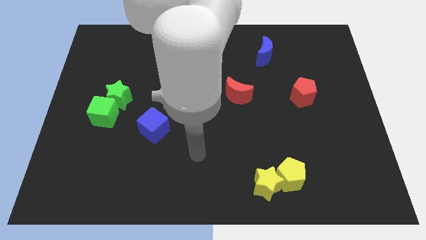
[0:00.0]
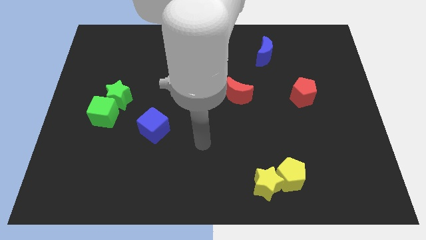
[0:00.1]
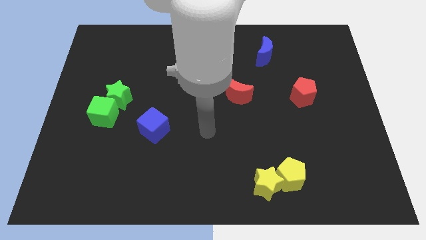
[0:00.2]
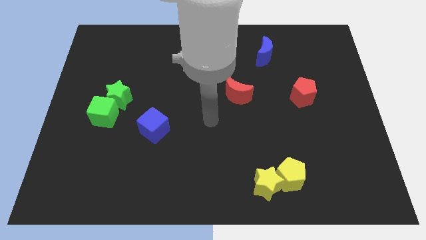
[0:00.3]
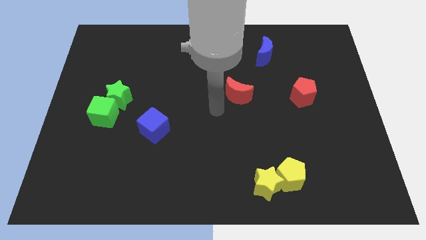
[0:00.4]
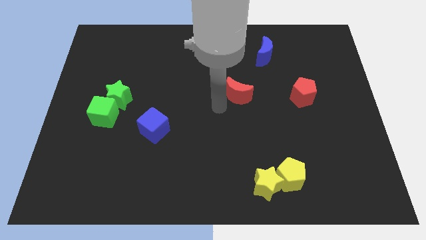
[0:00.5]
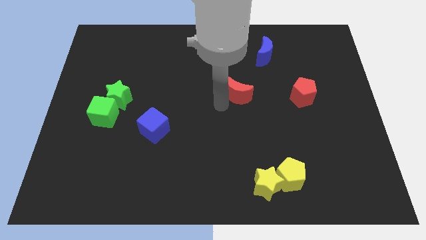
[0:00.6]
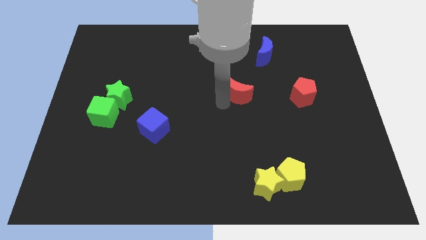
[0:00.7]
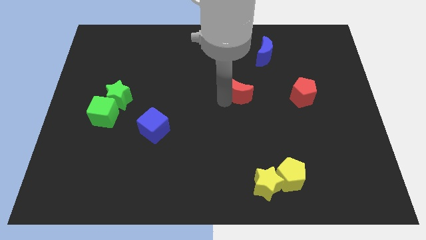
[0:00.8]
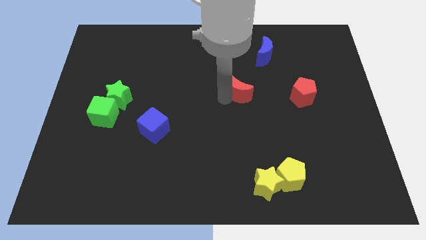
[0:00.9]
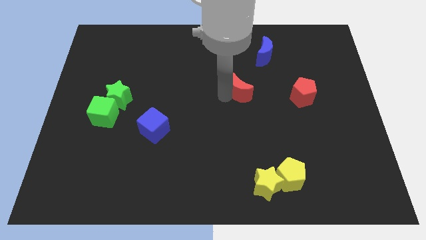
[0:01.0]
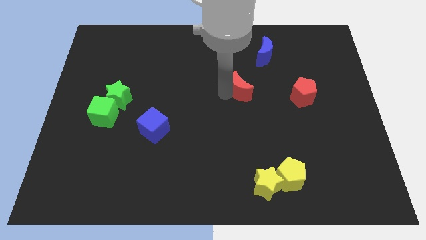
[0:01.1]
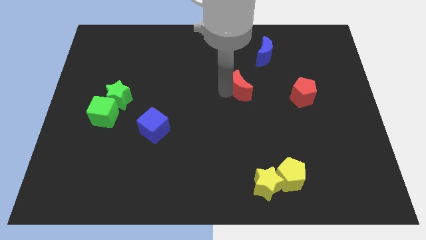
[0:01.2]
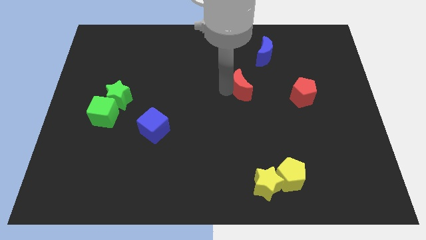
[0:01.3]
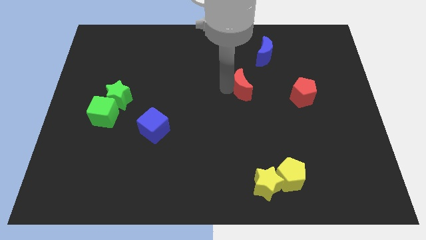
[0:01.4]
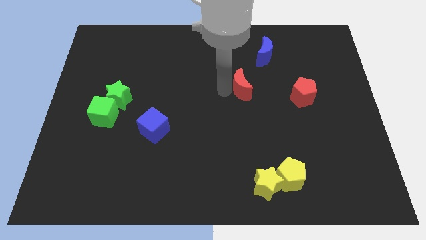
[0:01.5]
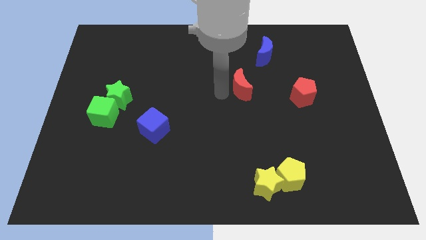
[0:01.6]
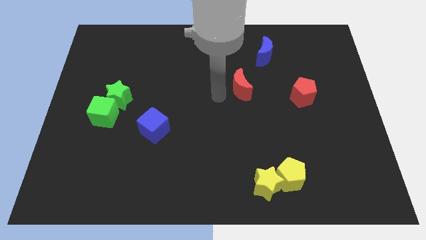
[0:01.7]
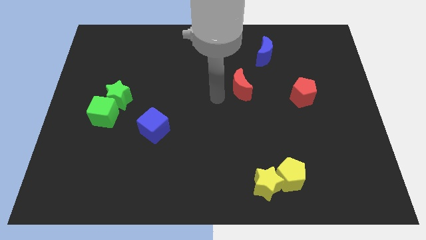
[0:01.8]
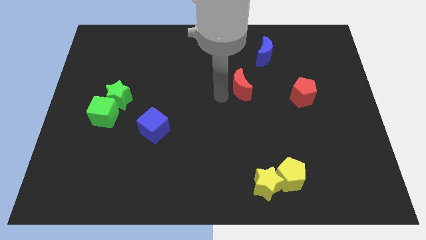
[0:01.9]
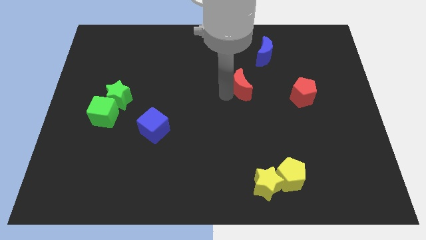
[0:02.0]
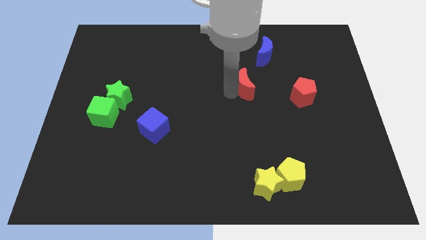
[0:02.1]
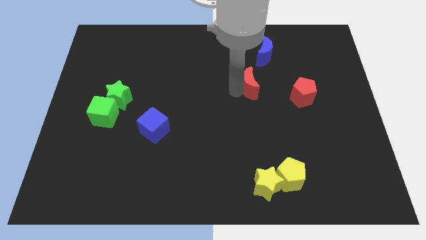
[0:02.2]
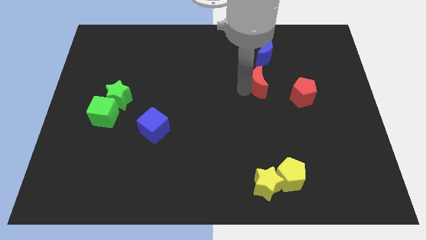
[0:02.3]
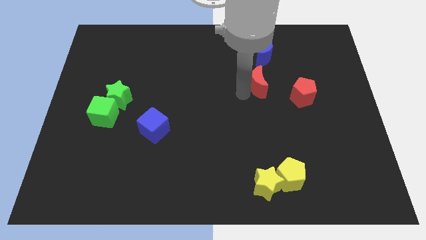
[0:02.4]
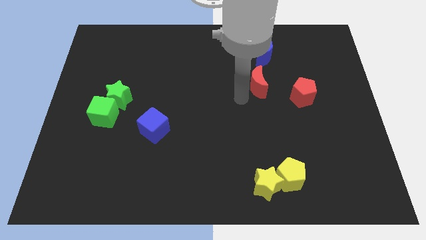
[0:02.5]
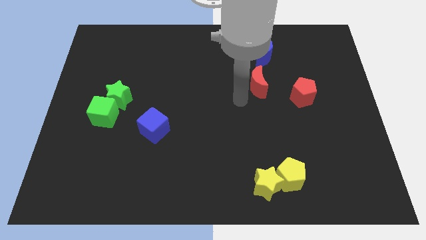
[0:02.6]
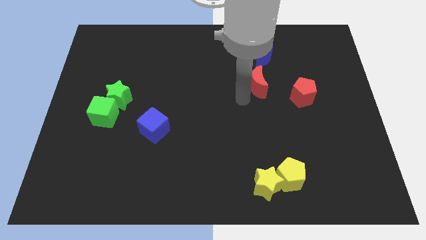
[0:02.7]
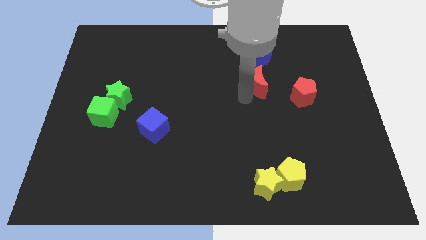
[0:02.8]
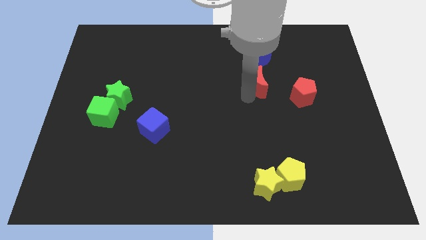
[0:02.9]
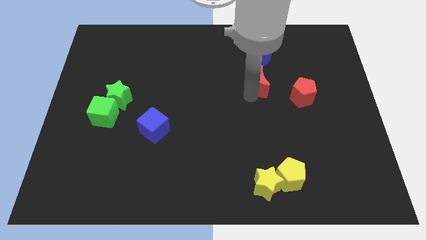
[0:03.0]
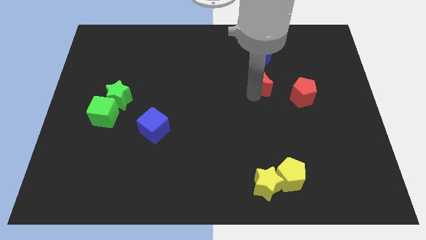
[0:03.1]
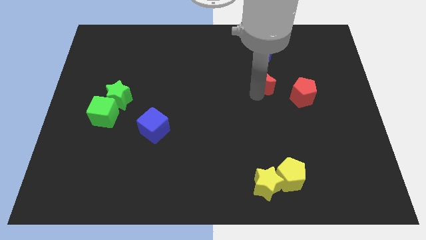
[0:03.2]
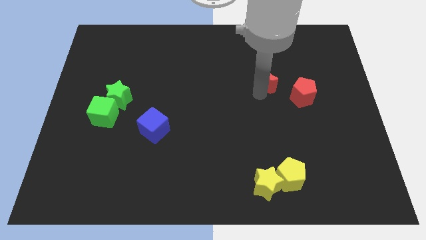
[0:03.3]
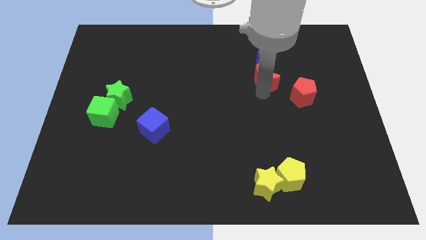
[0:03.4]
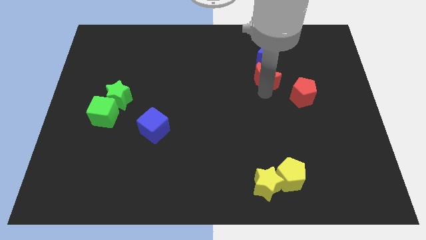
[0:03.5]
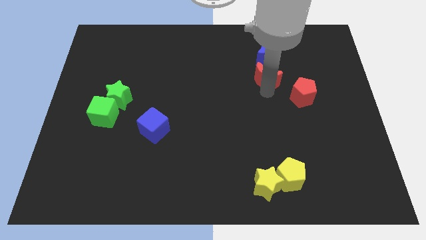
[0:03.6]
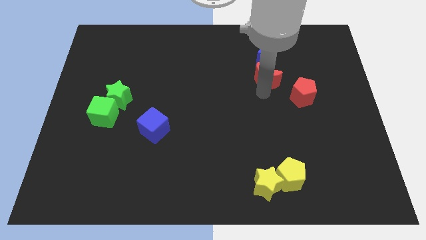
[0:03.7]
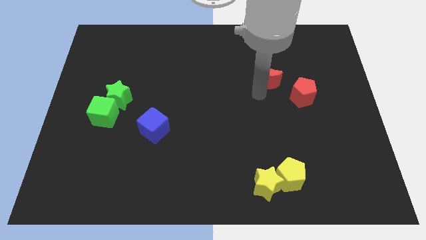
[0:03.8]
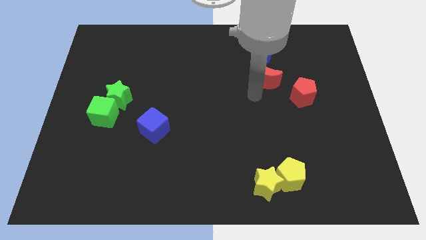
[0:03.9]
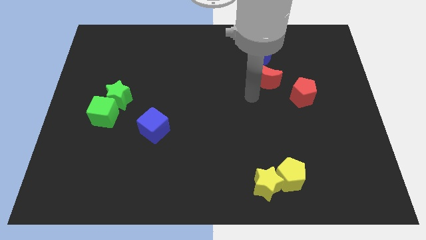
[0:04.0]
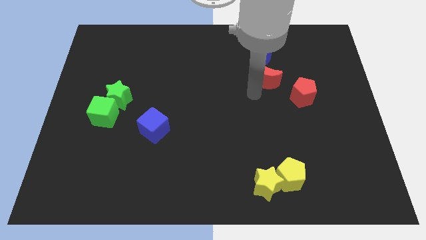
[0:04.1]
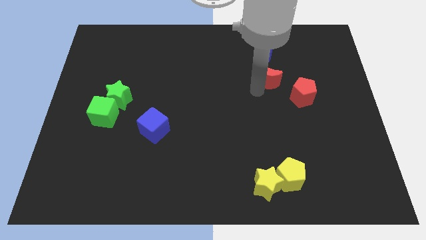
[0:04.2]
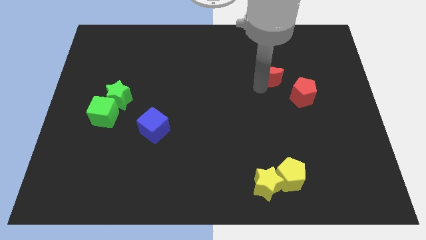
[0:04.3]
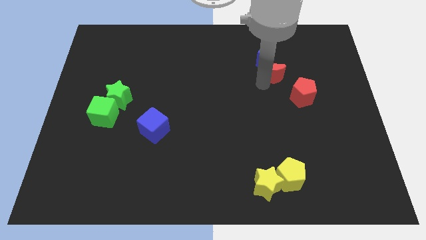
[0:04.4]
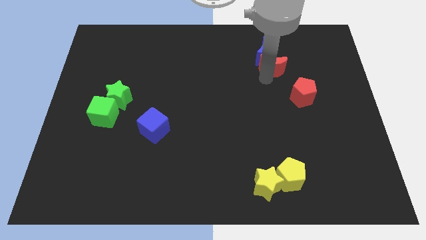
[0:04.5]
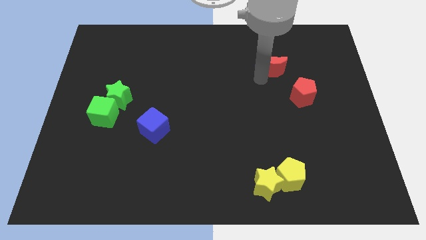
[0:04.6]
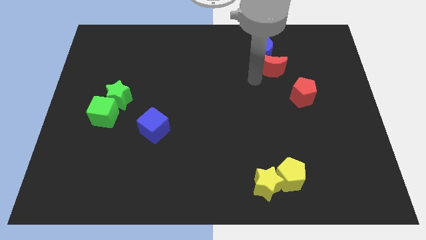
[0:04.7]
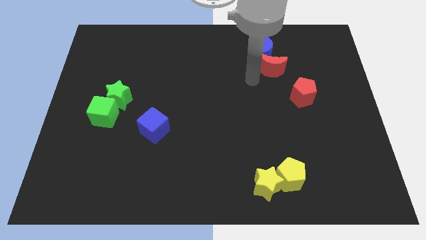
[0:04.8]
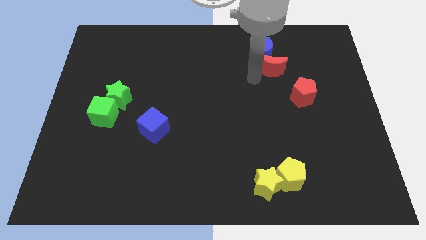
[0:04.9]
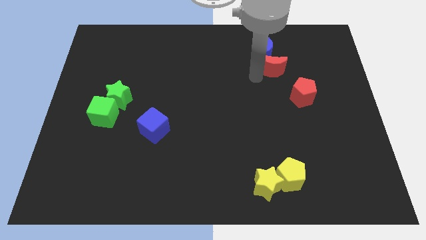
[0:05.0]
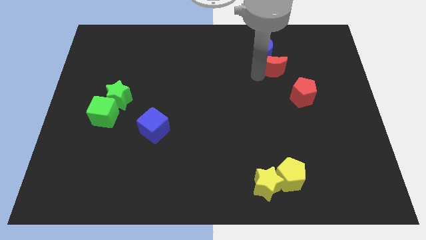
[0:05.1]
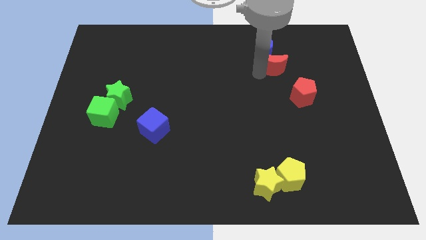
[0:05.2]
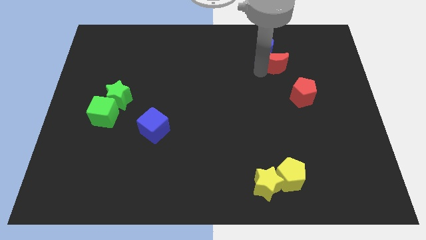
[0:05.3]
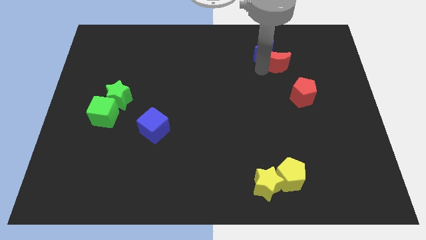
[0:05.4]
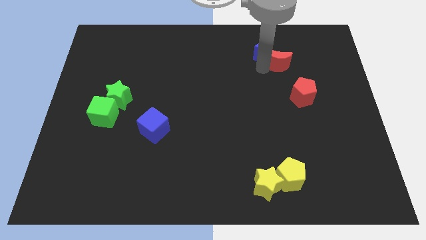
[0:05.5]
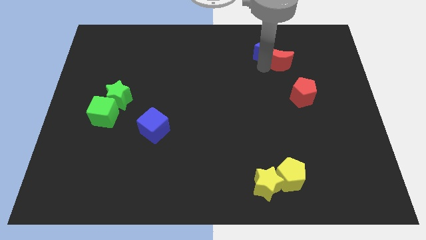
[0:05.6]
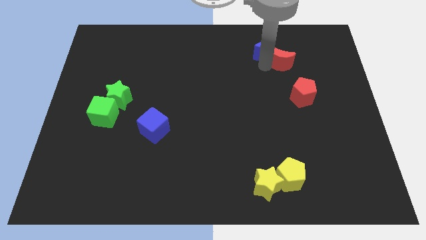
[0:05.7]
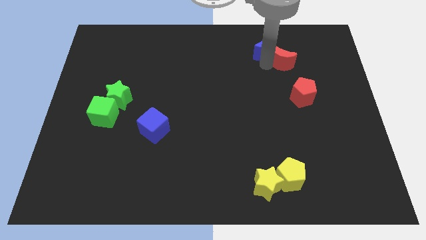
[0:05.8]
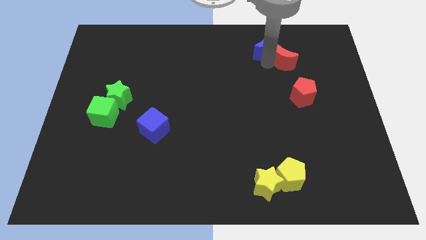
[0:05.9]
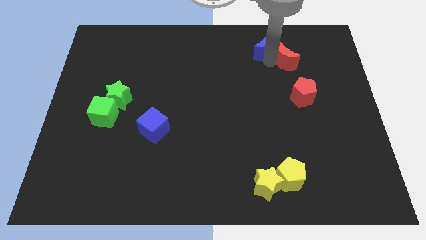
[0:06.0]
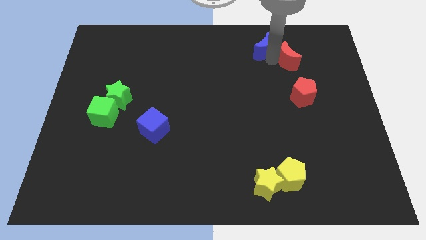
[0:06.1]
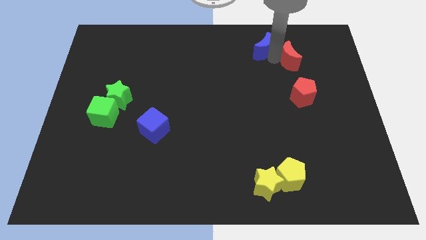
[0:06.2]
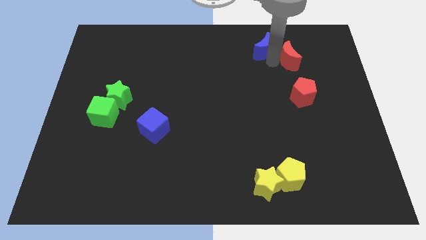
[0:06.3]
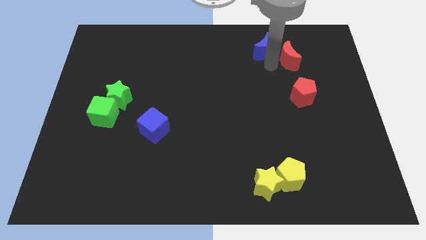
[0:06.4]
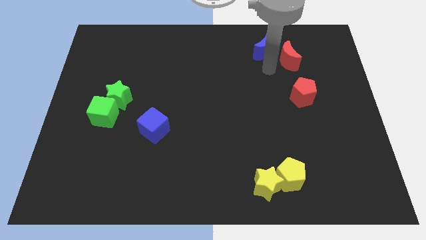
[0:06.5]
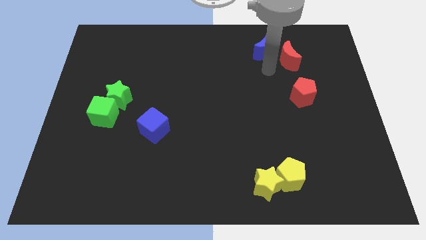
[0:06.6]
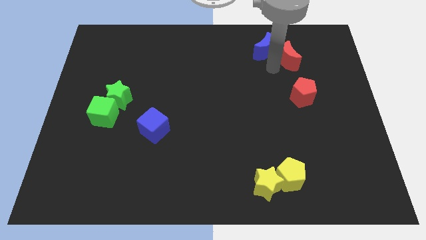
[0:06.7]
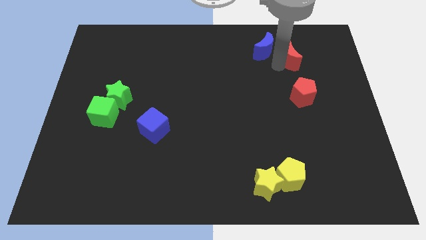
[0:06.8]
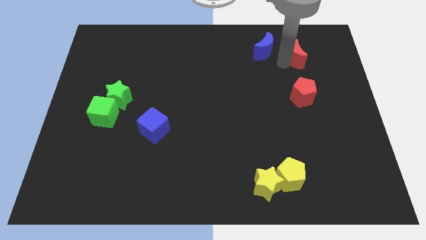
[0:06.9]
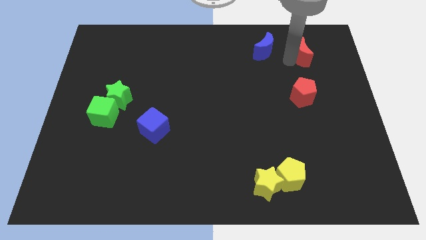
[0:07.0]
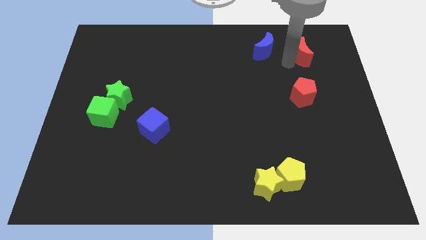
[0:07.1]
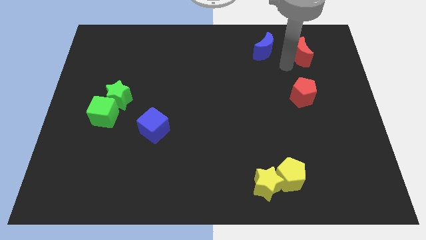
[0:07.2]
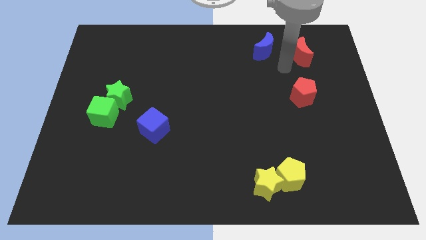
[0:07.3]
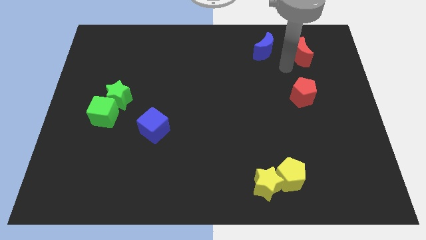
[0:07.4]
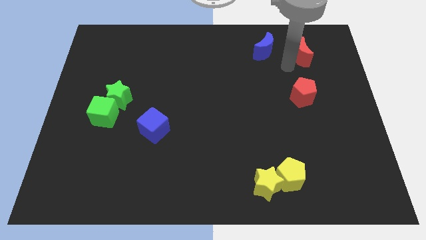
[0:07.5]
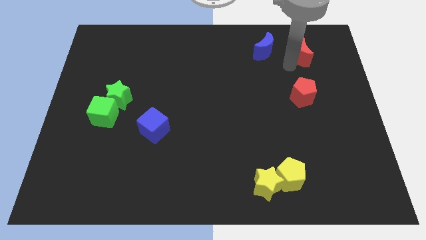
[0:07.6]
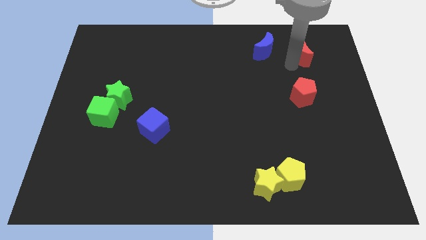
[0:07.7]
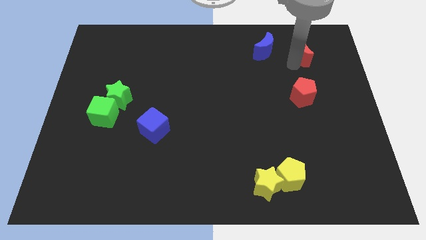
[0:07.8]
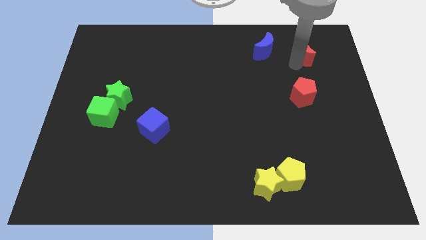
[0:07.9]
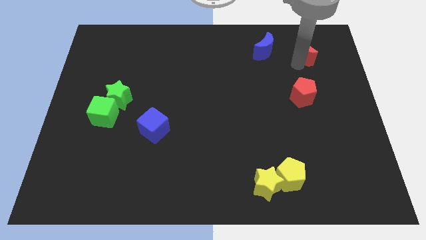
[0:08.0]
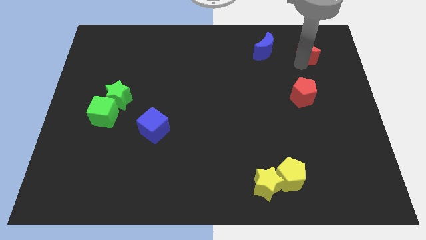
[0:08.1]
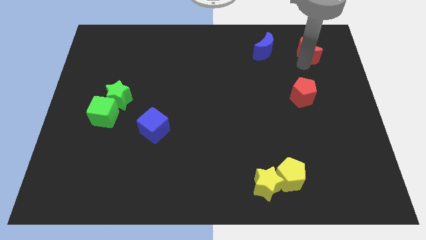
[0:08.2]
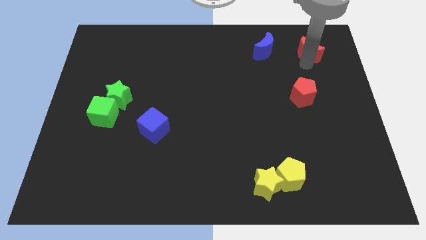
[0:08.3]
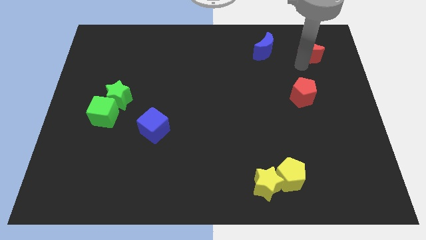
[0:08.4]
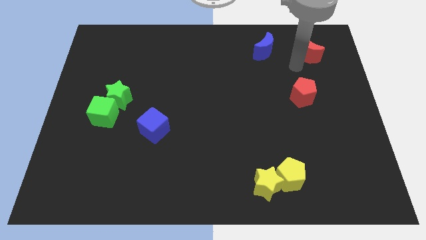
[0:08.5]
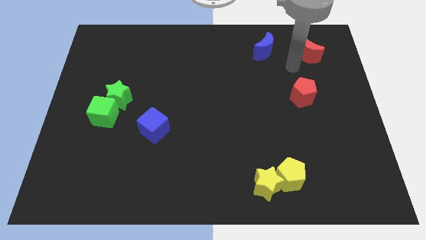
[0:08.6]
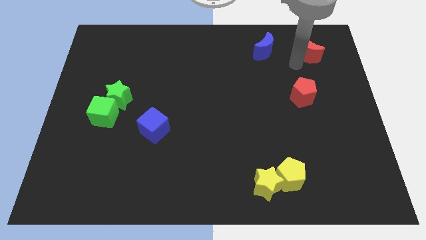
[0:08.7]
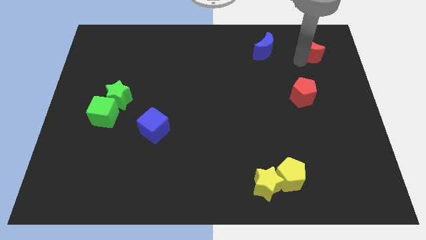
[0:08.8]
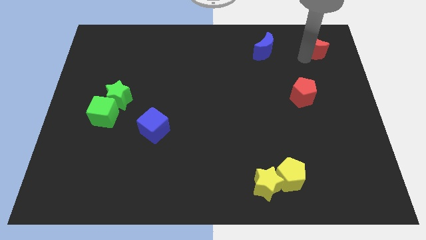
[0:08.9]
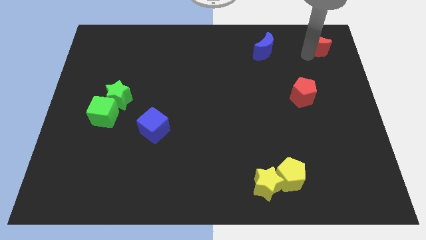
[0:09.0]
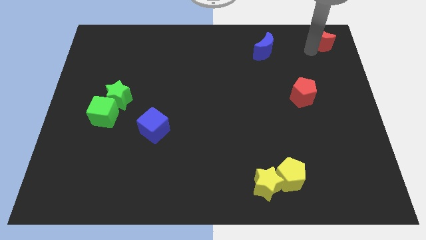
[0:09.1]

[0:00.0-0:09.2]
put the red moon to the top right of the board
